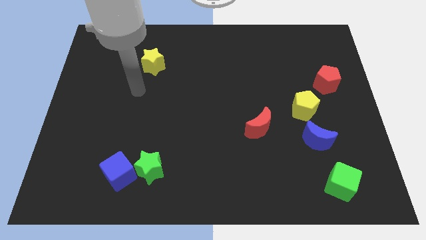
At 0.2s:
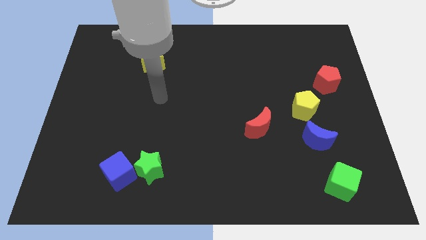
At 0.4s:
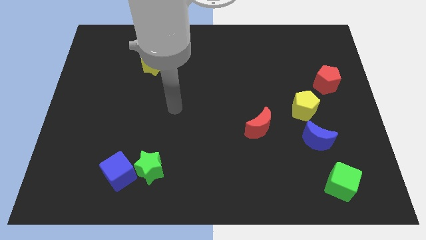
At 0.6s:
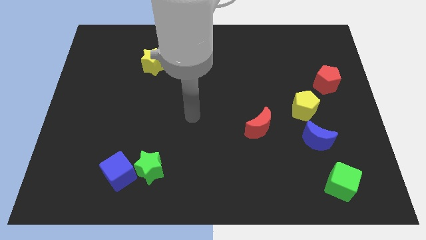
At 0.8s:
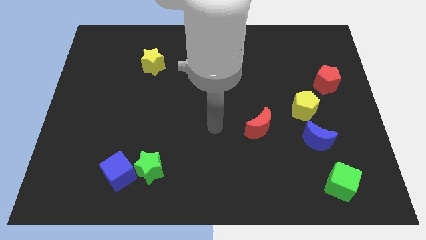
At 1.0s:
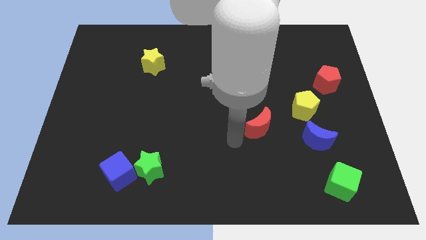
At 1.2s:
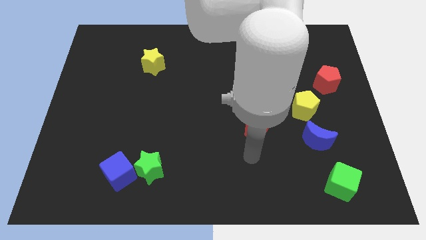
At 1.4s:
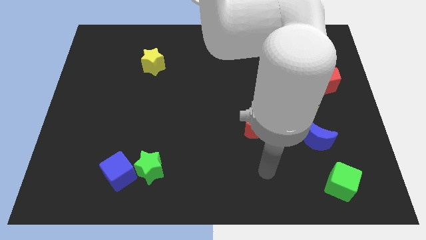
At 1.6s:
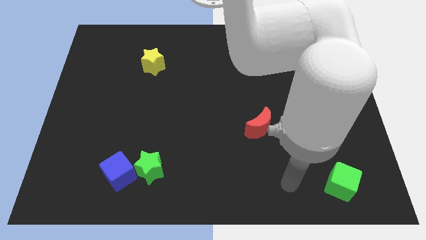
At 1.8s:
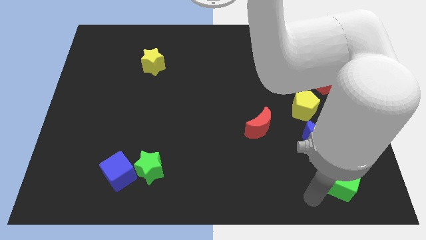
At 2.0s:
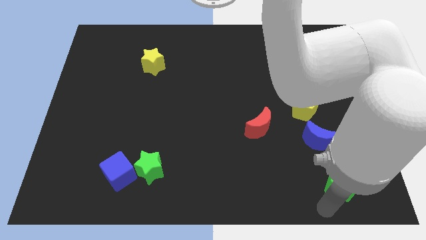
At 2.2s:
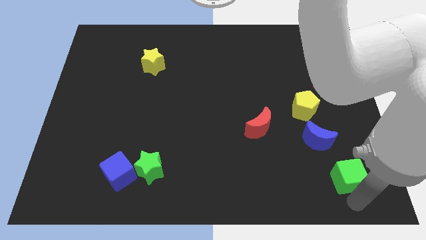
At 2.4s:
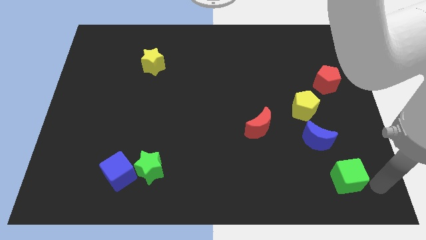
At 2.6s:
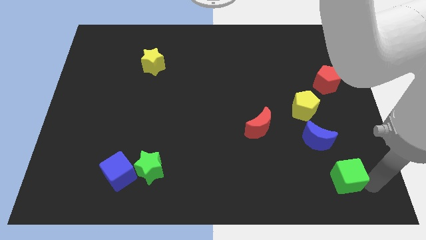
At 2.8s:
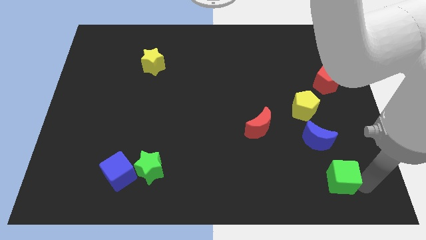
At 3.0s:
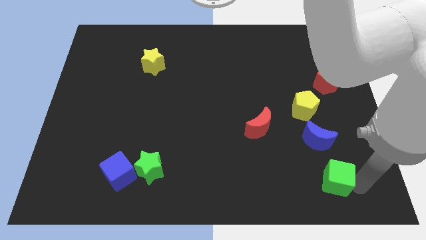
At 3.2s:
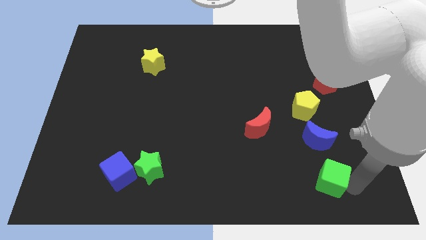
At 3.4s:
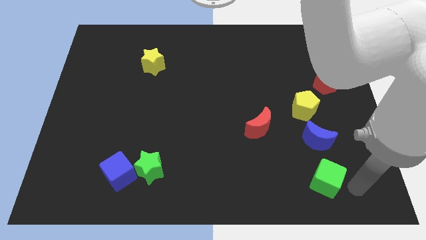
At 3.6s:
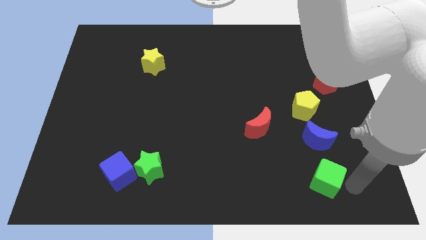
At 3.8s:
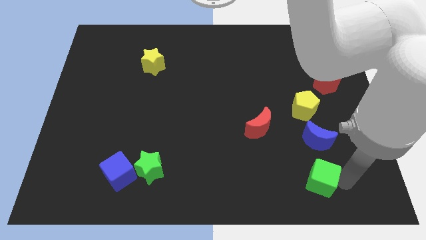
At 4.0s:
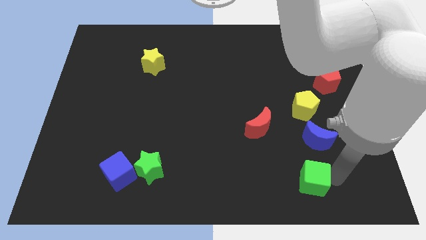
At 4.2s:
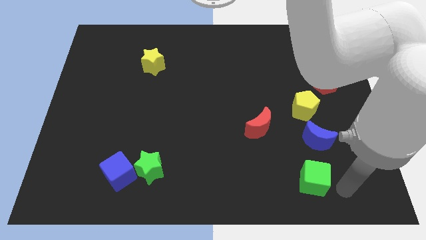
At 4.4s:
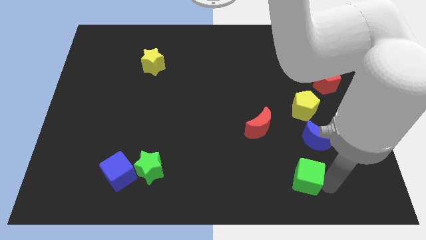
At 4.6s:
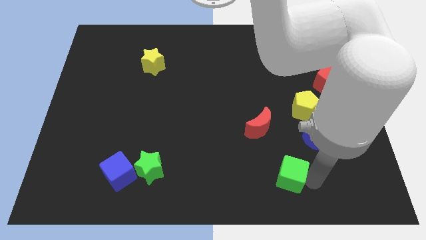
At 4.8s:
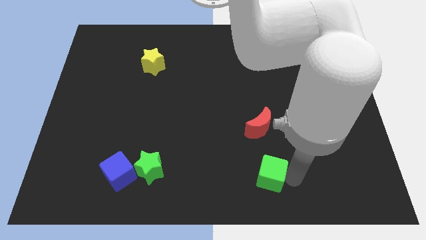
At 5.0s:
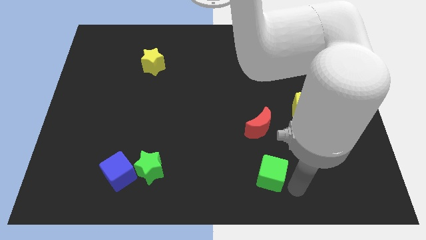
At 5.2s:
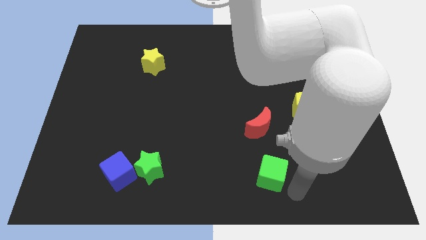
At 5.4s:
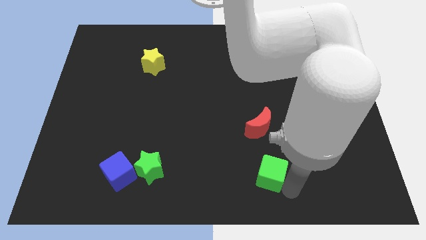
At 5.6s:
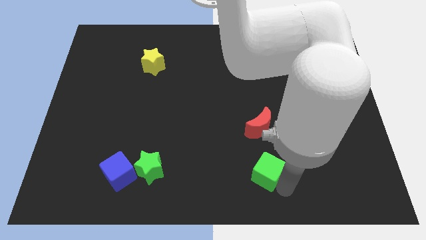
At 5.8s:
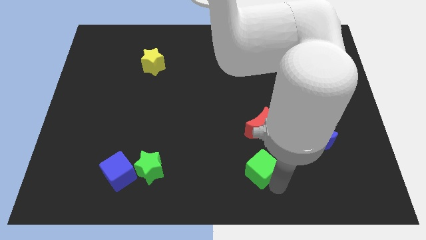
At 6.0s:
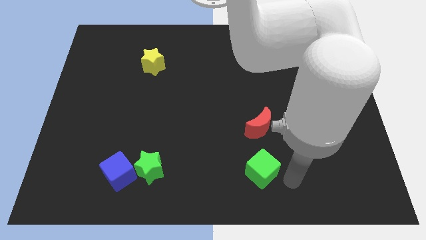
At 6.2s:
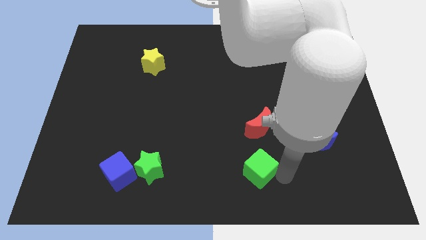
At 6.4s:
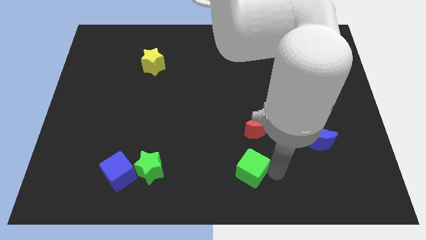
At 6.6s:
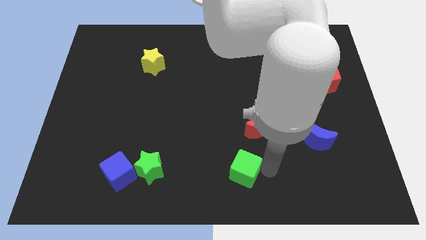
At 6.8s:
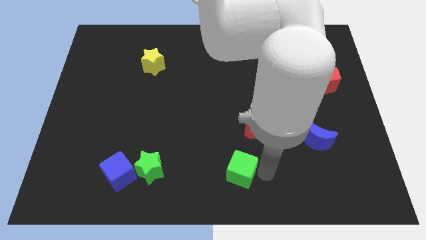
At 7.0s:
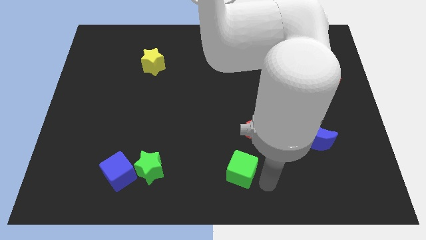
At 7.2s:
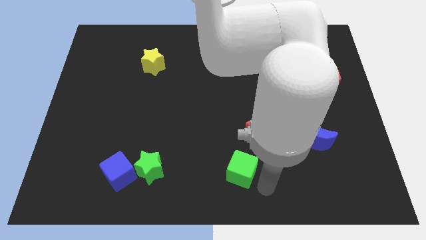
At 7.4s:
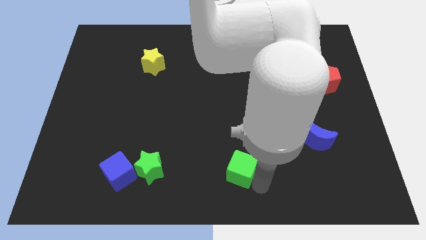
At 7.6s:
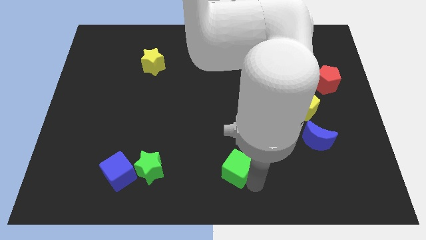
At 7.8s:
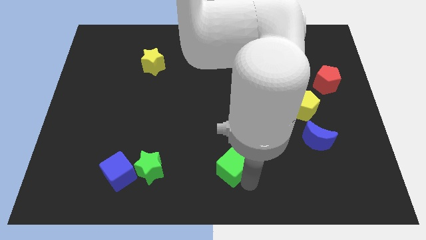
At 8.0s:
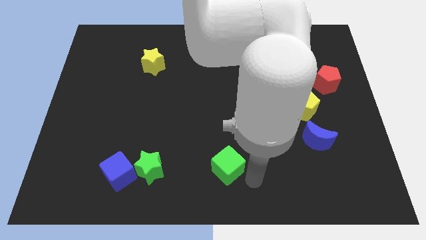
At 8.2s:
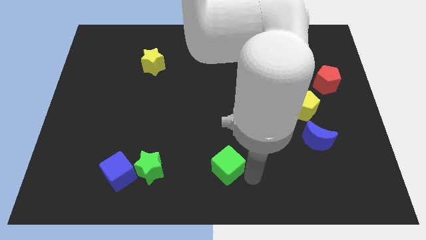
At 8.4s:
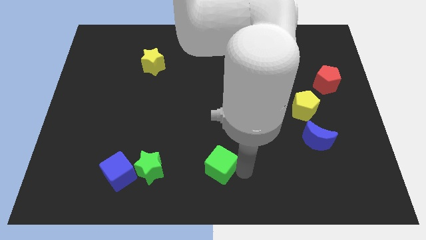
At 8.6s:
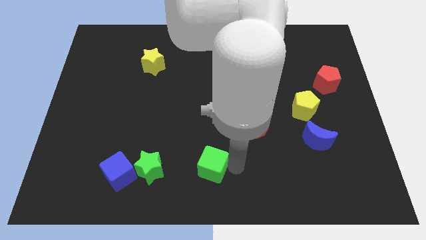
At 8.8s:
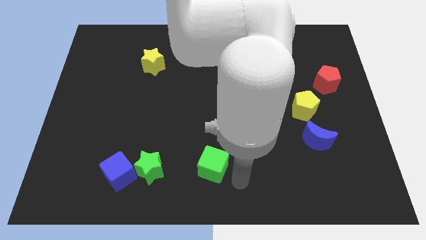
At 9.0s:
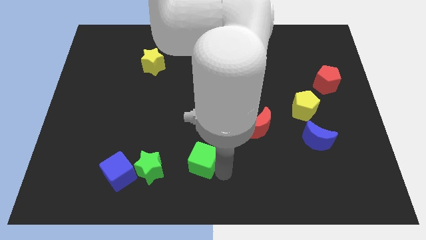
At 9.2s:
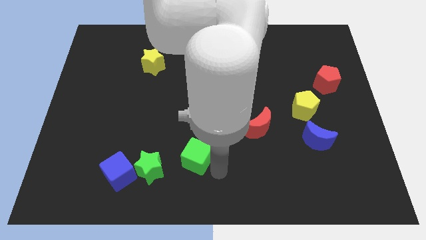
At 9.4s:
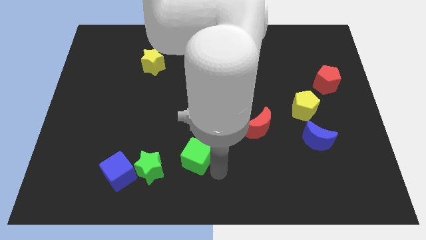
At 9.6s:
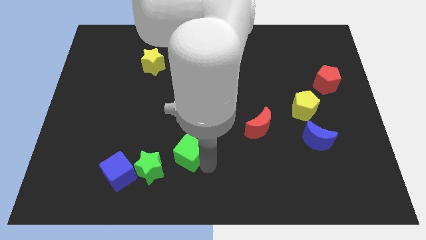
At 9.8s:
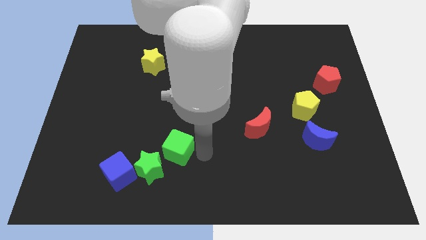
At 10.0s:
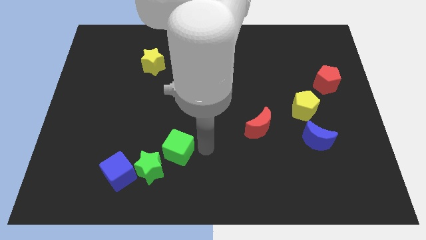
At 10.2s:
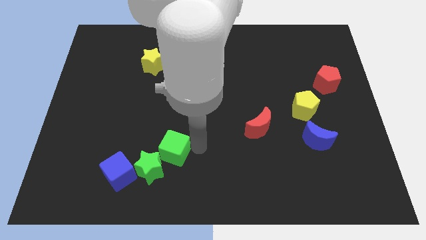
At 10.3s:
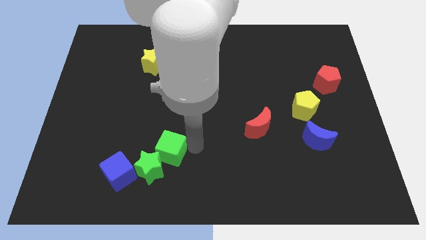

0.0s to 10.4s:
move the green cube diagonally up and to the right of the blue cube

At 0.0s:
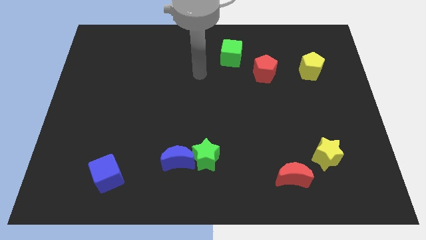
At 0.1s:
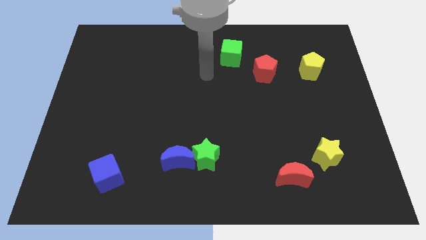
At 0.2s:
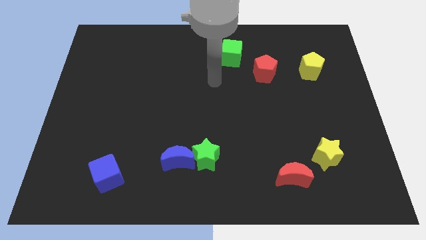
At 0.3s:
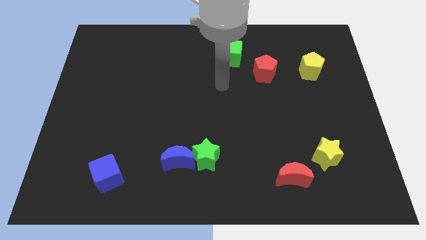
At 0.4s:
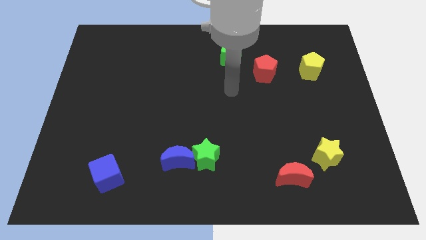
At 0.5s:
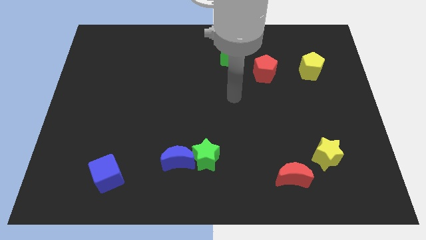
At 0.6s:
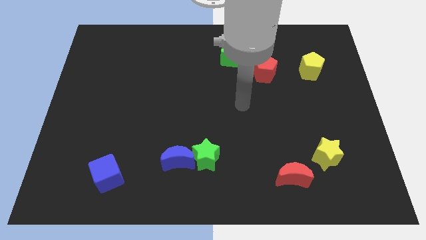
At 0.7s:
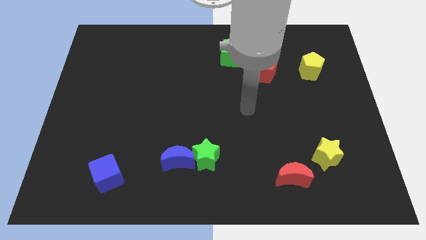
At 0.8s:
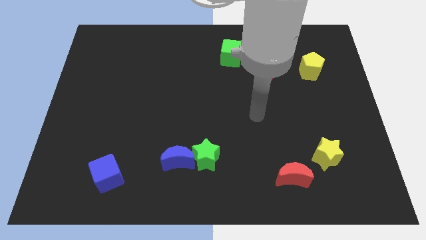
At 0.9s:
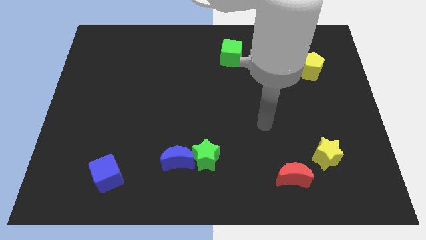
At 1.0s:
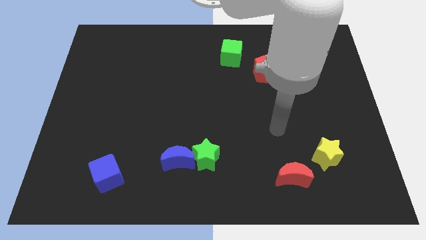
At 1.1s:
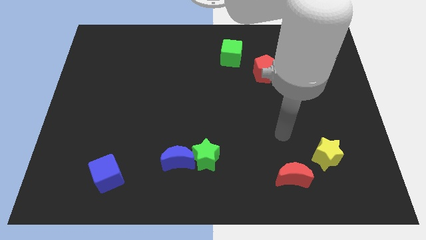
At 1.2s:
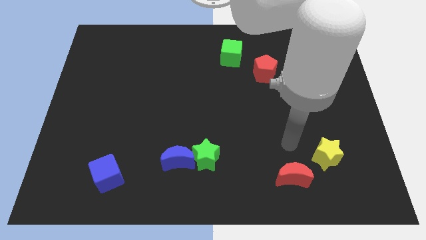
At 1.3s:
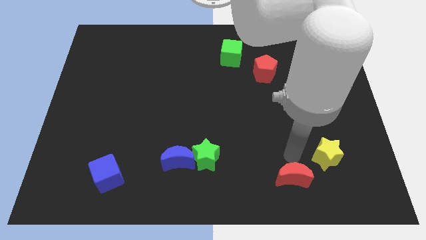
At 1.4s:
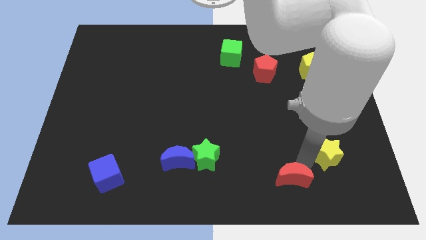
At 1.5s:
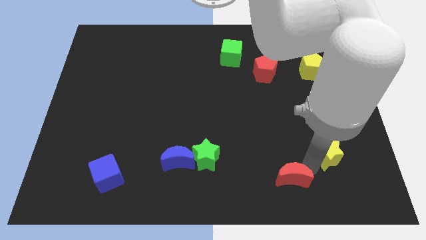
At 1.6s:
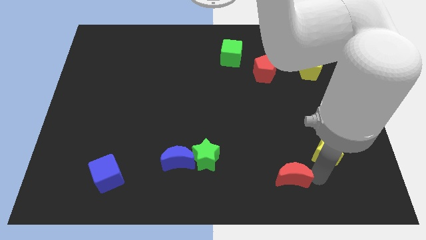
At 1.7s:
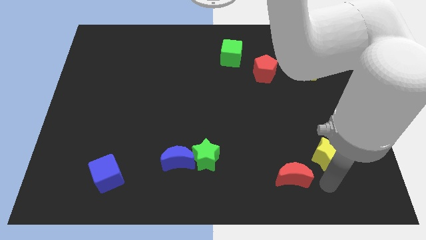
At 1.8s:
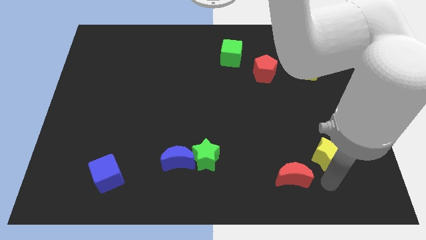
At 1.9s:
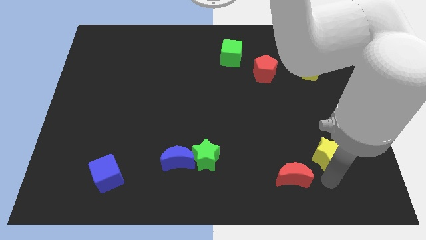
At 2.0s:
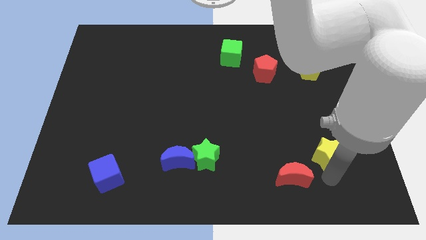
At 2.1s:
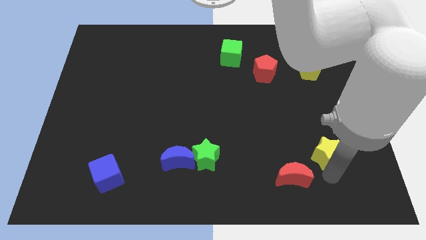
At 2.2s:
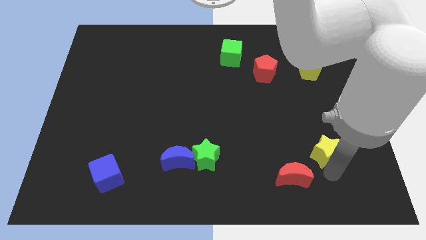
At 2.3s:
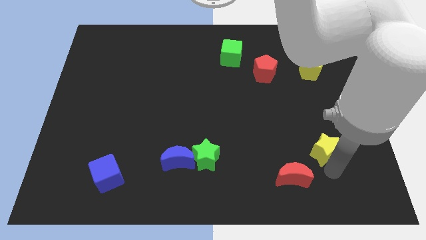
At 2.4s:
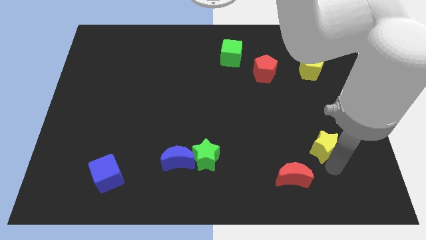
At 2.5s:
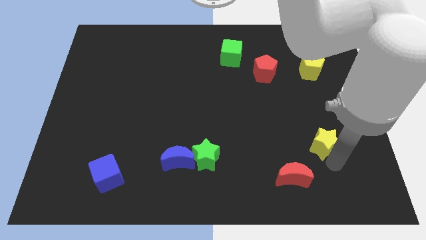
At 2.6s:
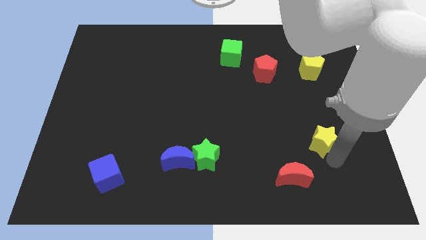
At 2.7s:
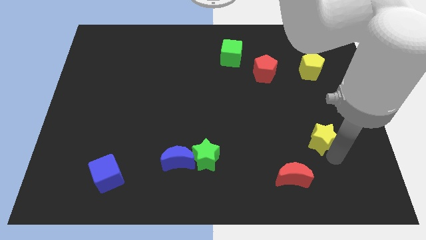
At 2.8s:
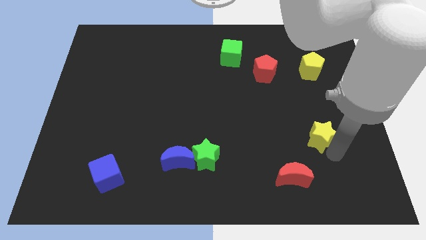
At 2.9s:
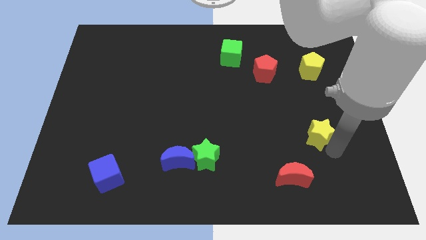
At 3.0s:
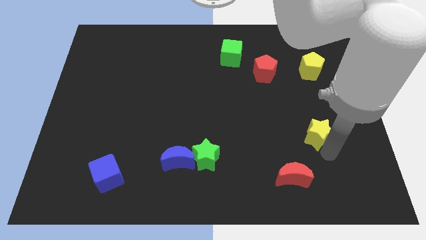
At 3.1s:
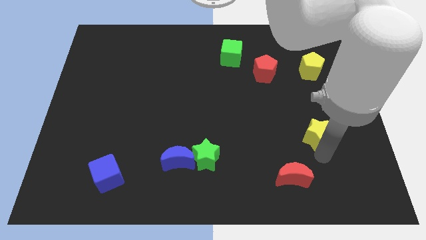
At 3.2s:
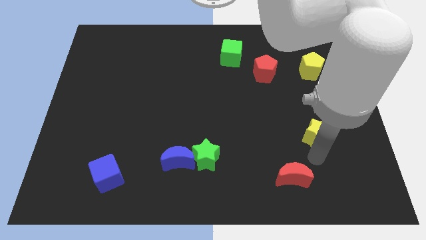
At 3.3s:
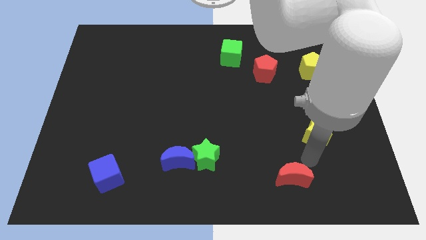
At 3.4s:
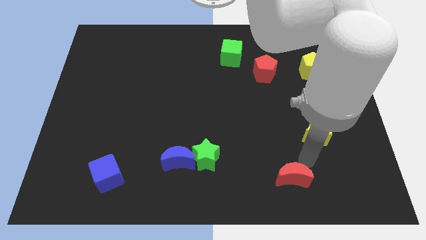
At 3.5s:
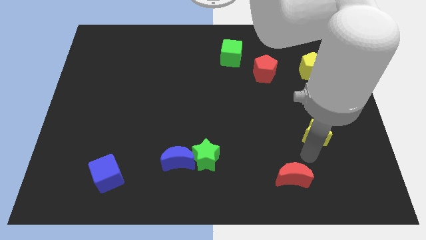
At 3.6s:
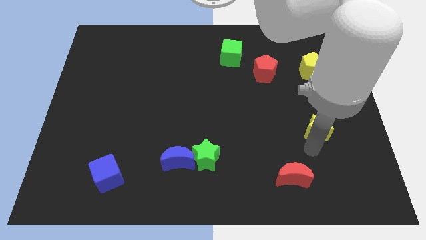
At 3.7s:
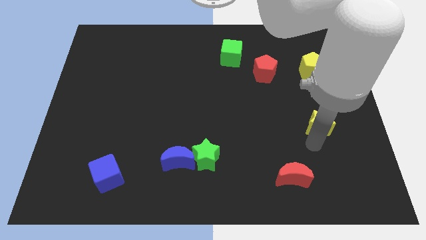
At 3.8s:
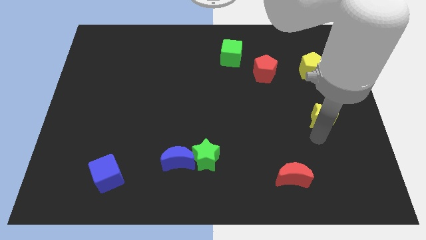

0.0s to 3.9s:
push the yellow star to the bottom of the yellow pentagon
